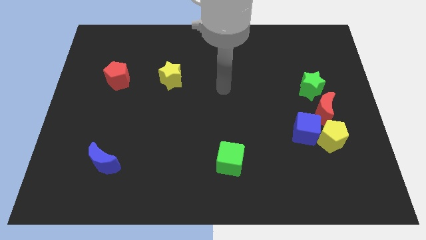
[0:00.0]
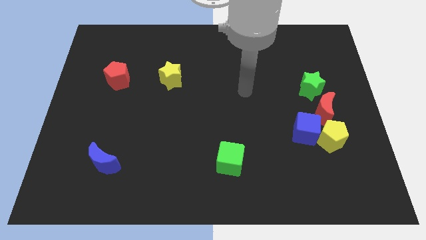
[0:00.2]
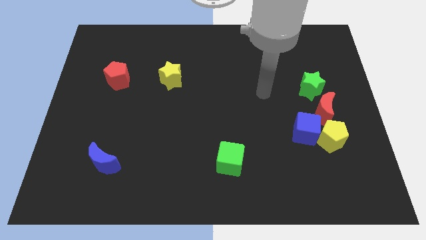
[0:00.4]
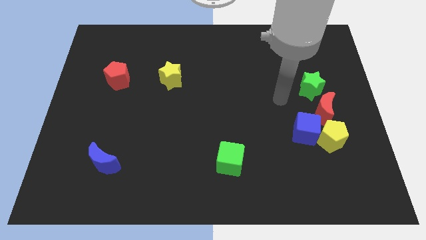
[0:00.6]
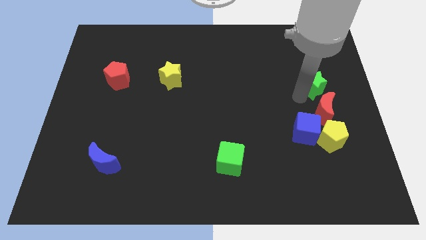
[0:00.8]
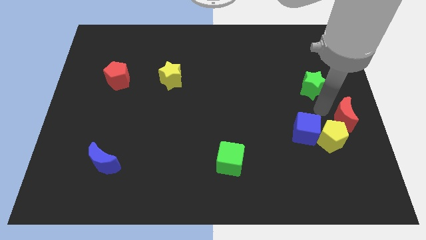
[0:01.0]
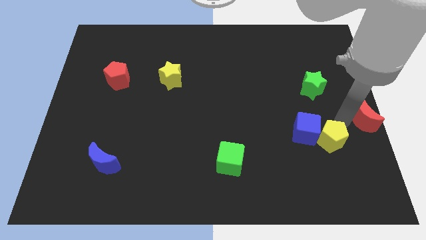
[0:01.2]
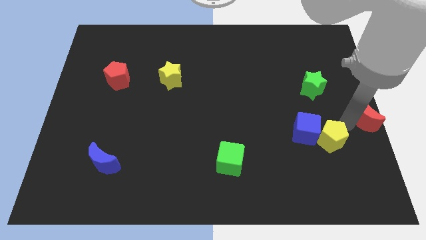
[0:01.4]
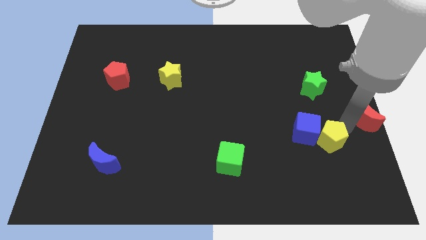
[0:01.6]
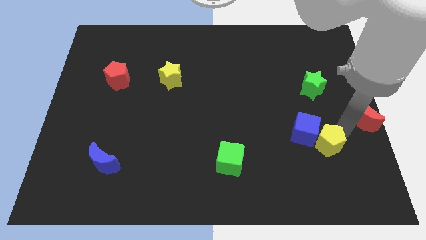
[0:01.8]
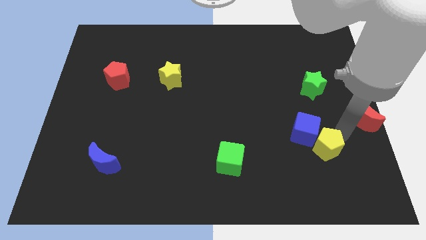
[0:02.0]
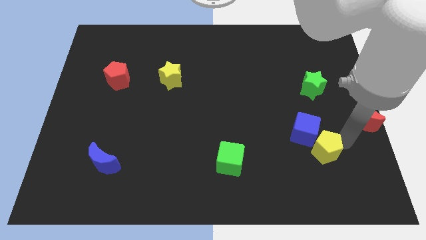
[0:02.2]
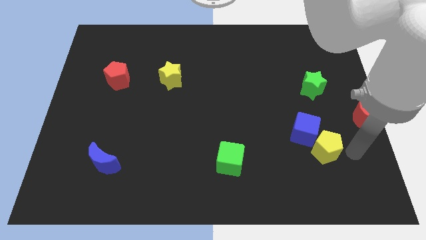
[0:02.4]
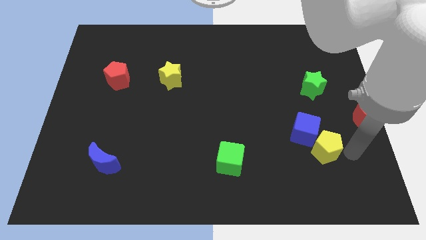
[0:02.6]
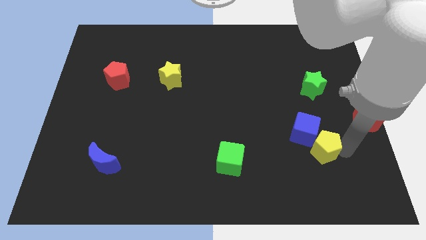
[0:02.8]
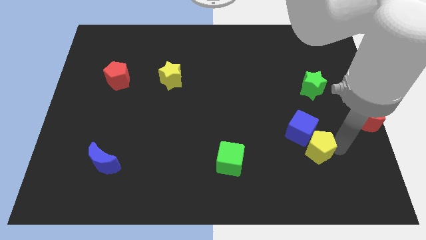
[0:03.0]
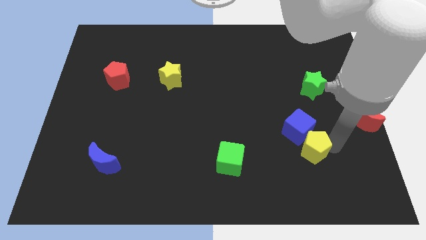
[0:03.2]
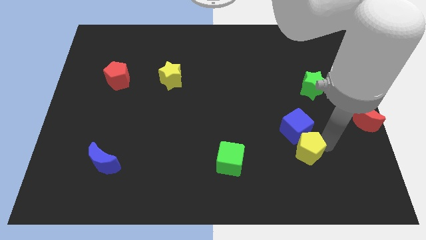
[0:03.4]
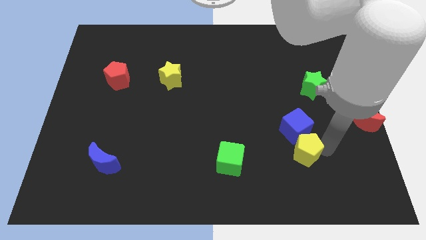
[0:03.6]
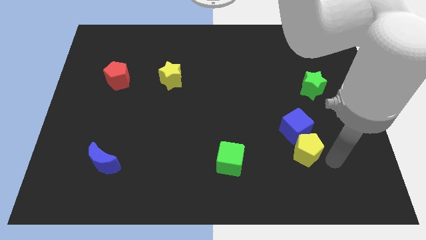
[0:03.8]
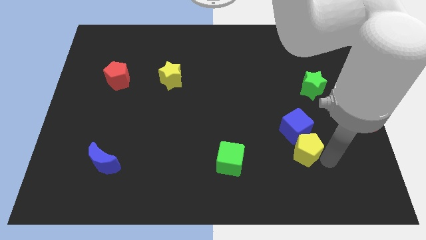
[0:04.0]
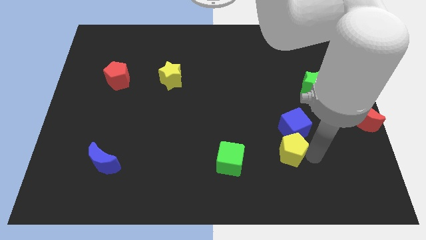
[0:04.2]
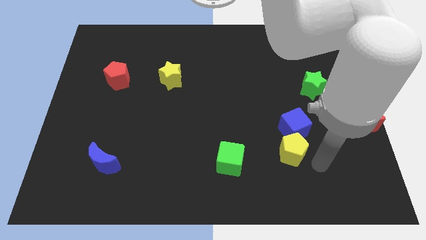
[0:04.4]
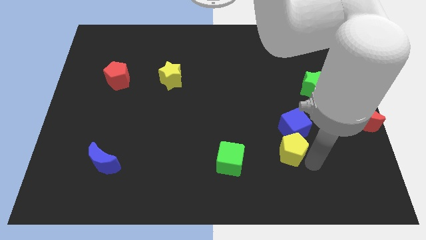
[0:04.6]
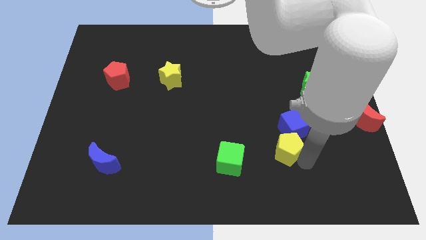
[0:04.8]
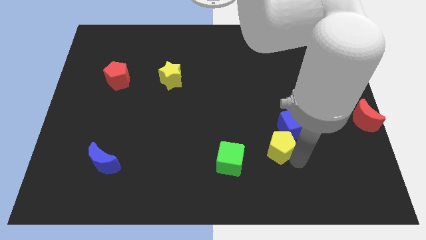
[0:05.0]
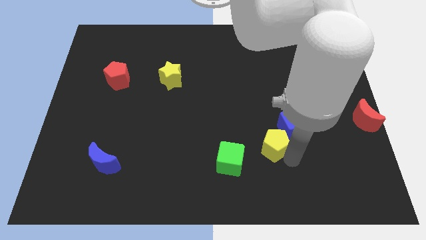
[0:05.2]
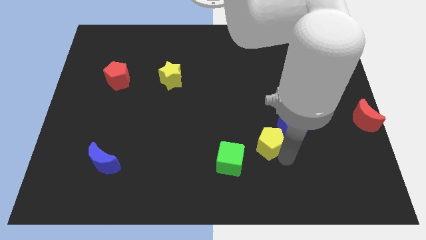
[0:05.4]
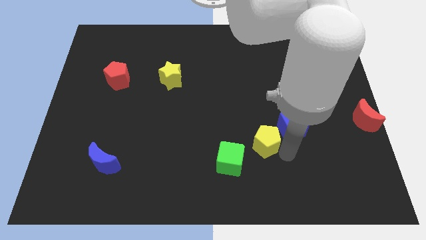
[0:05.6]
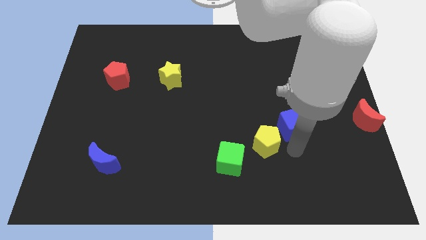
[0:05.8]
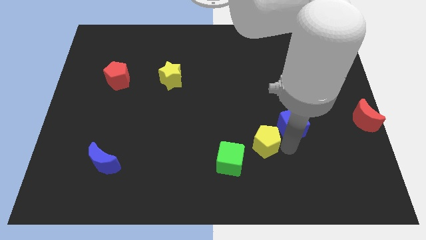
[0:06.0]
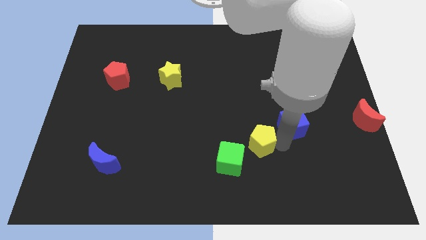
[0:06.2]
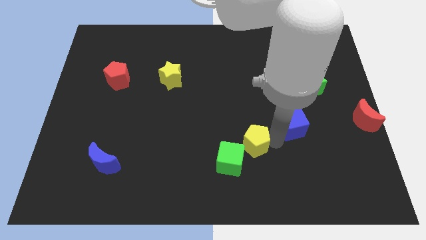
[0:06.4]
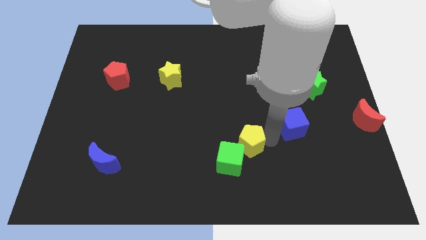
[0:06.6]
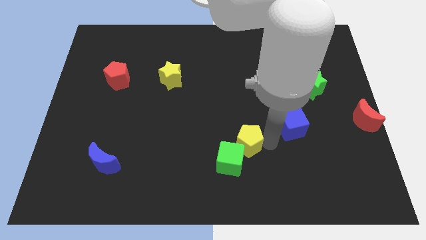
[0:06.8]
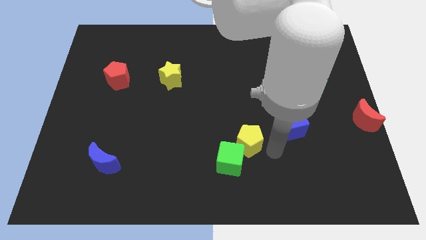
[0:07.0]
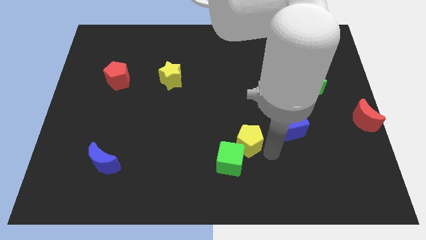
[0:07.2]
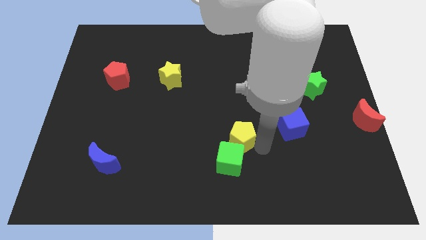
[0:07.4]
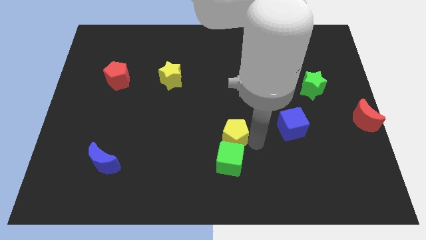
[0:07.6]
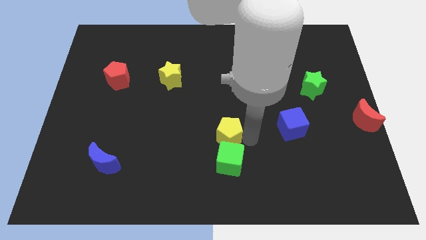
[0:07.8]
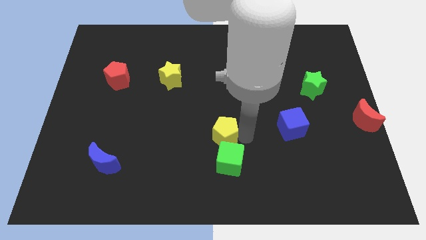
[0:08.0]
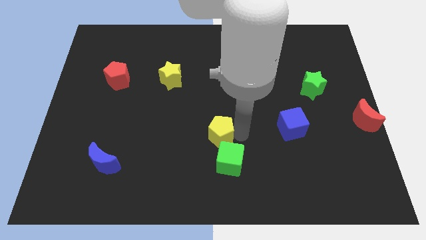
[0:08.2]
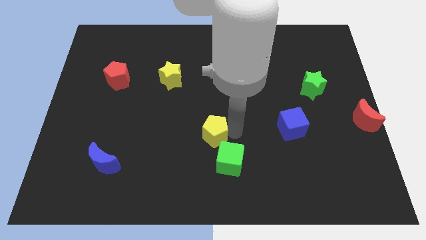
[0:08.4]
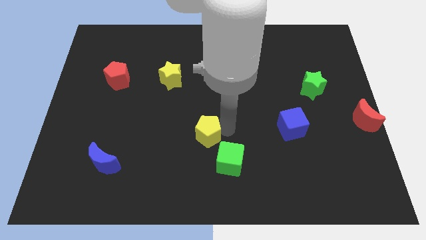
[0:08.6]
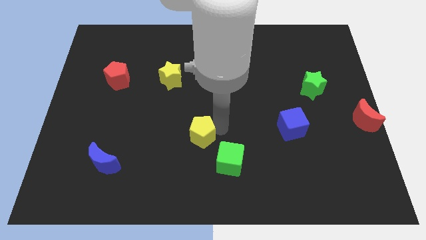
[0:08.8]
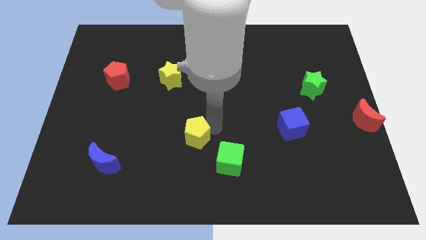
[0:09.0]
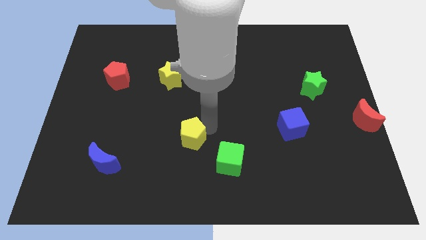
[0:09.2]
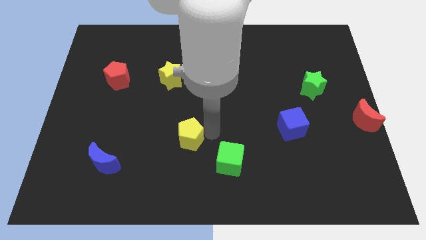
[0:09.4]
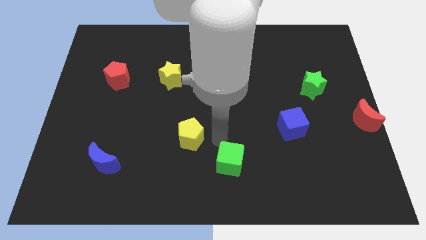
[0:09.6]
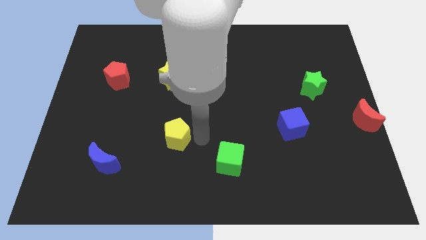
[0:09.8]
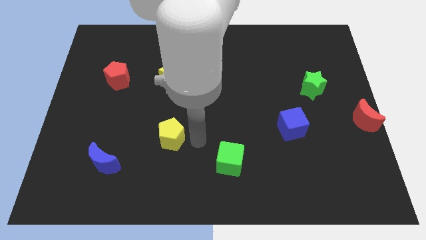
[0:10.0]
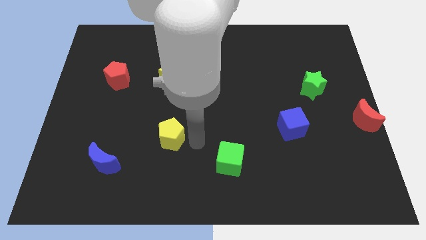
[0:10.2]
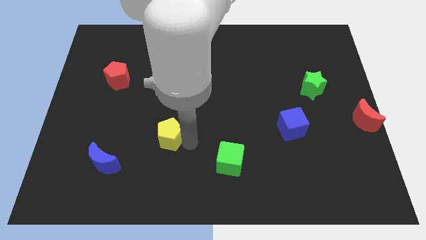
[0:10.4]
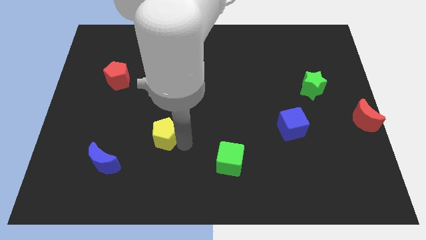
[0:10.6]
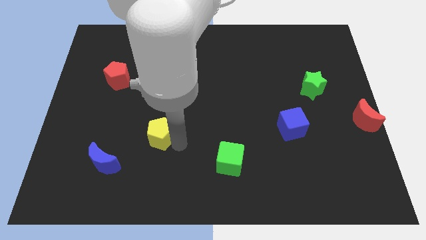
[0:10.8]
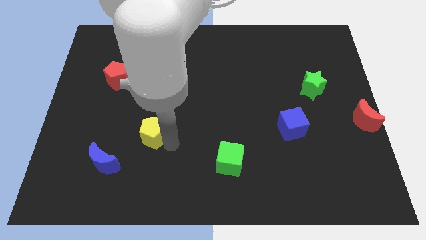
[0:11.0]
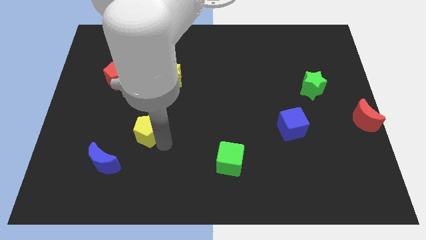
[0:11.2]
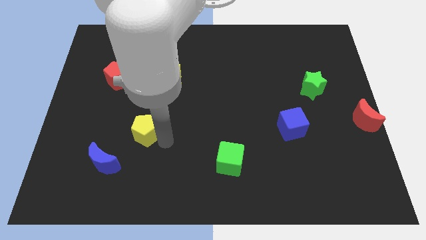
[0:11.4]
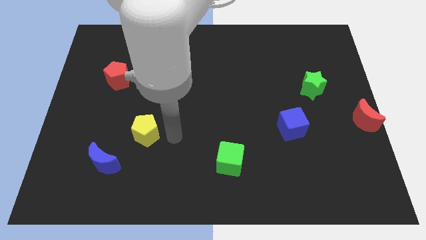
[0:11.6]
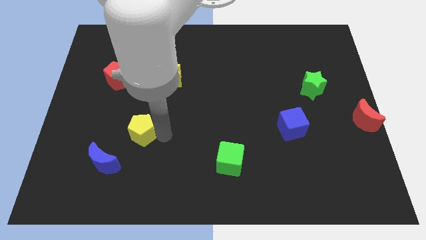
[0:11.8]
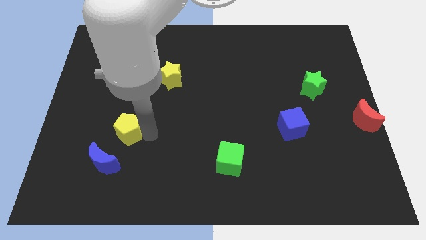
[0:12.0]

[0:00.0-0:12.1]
push the yellow pentagon above the blue moon

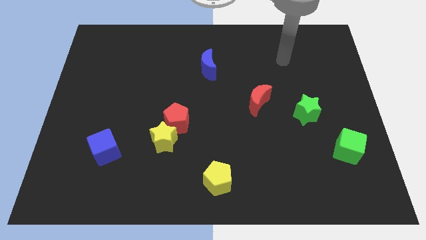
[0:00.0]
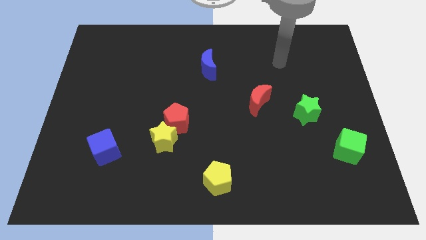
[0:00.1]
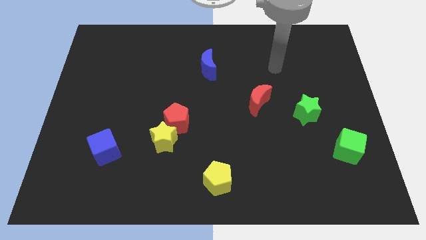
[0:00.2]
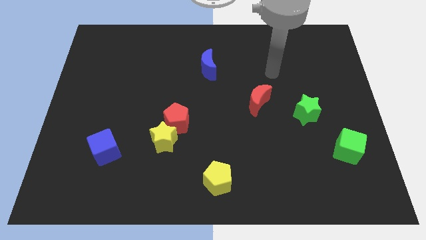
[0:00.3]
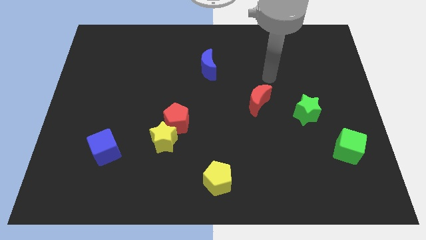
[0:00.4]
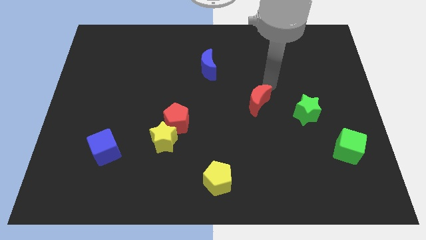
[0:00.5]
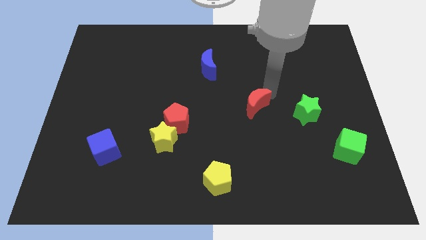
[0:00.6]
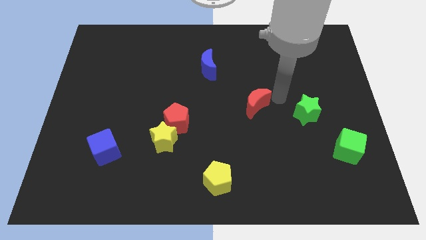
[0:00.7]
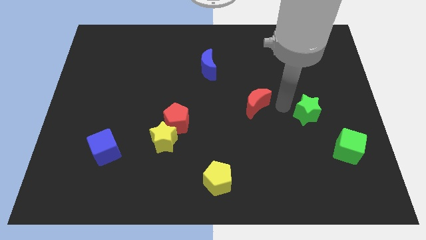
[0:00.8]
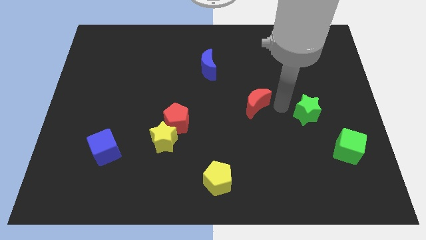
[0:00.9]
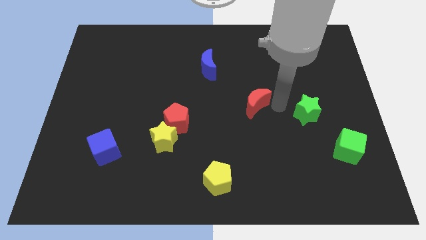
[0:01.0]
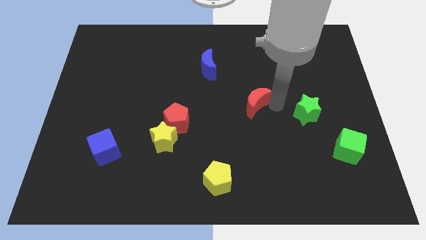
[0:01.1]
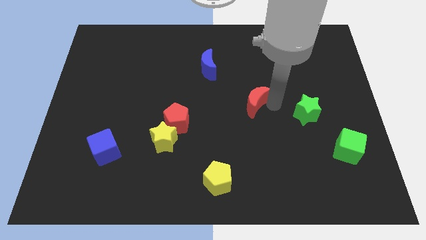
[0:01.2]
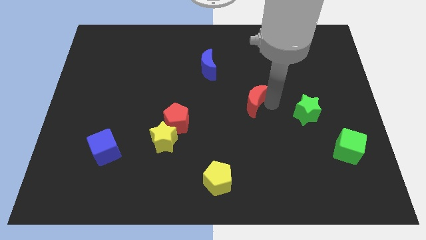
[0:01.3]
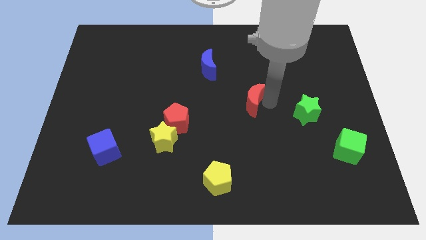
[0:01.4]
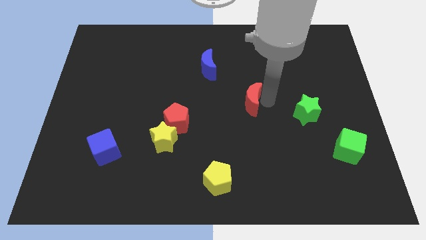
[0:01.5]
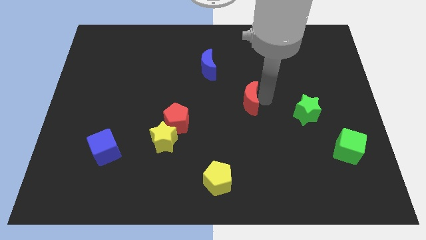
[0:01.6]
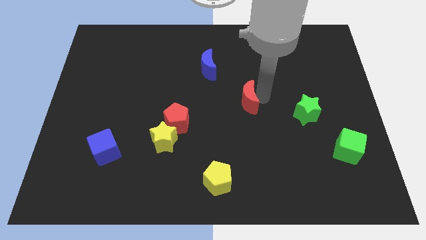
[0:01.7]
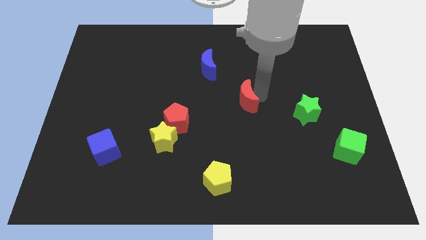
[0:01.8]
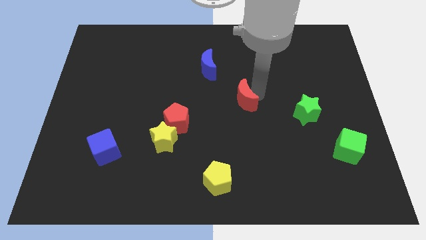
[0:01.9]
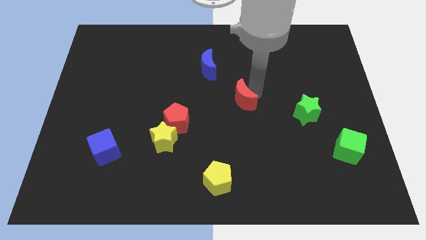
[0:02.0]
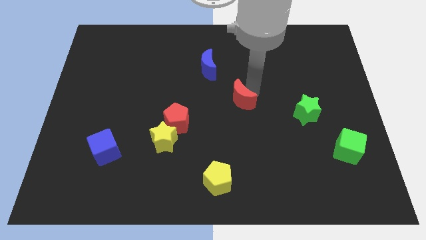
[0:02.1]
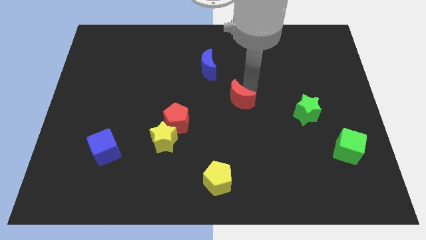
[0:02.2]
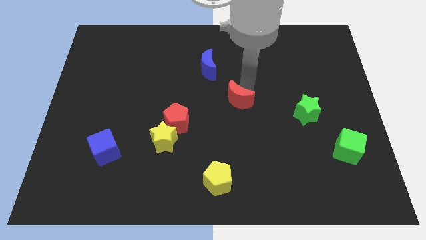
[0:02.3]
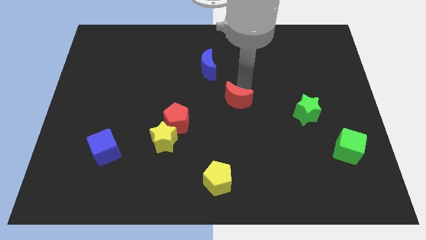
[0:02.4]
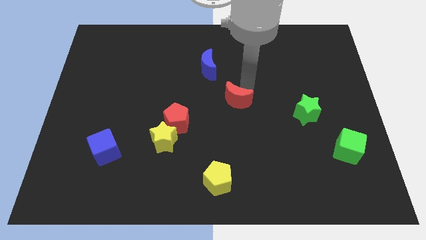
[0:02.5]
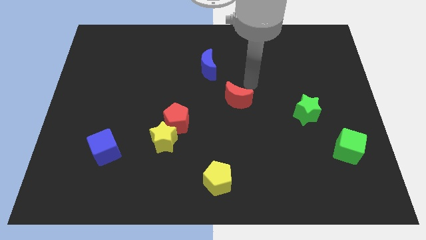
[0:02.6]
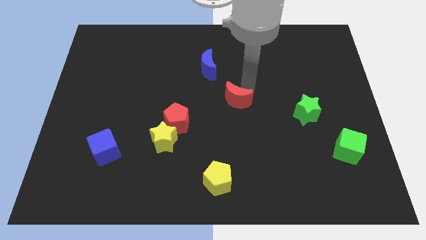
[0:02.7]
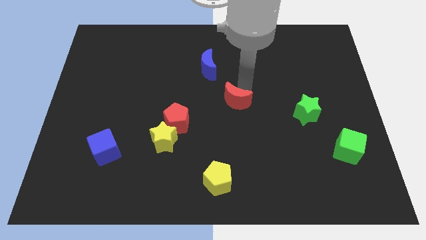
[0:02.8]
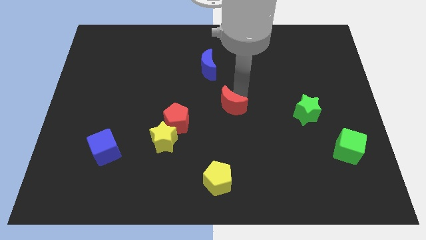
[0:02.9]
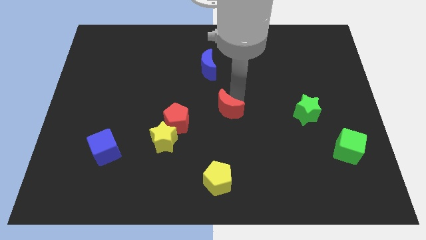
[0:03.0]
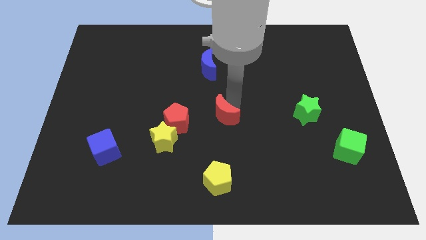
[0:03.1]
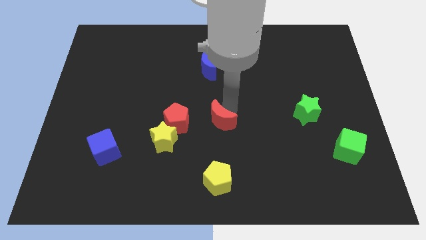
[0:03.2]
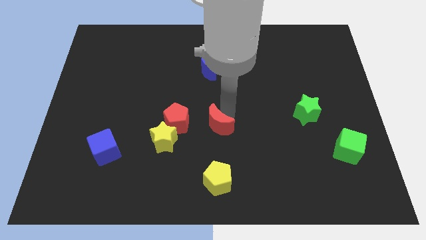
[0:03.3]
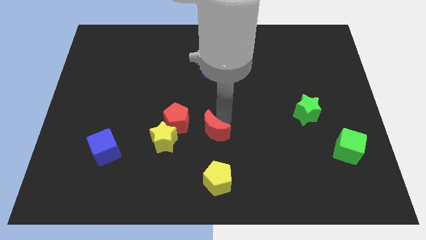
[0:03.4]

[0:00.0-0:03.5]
slide the red moon diagonally down and to the right of the red pentagon
